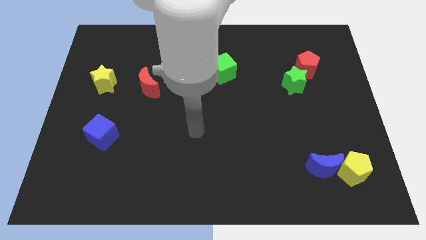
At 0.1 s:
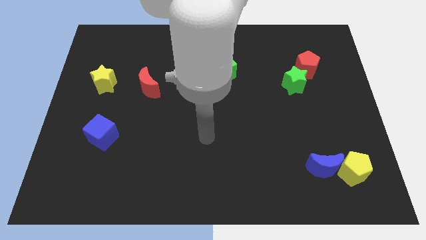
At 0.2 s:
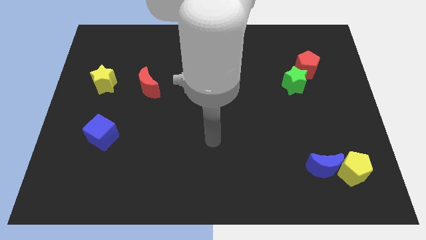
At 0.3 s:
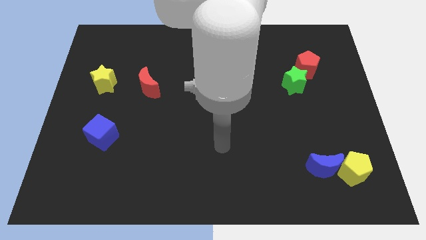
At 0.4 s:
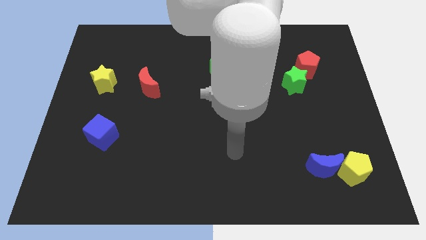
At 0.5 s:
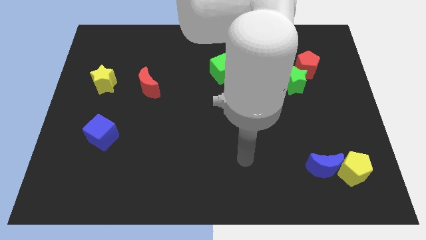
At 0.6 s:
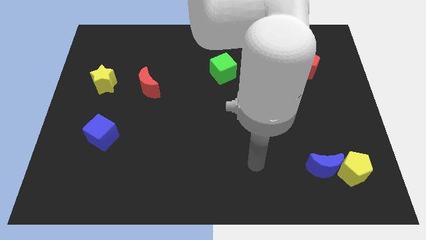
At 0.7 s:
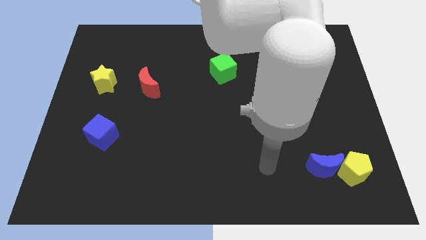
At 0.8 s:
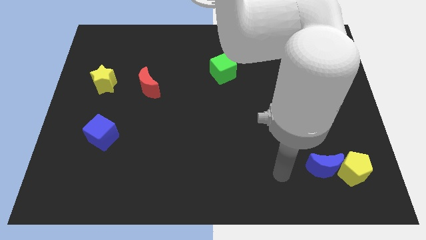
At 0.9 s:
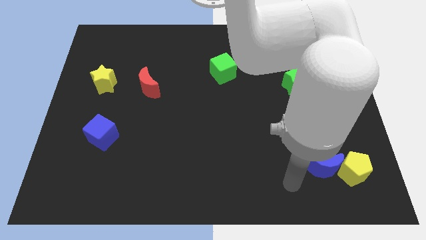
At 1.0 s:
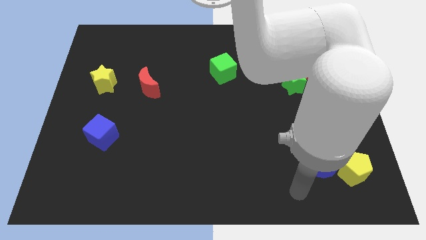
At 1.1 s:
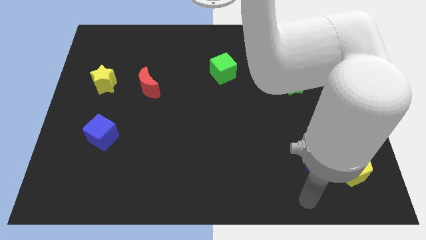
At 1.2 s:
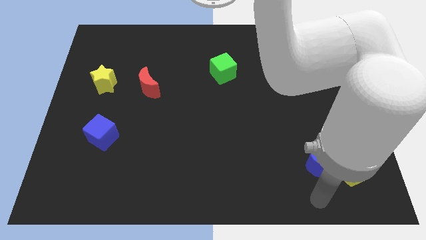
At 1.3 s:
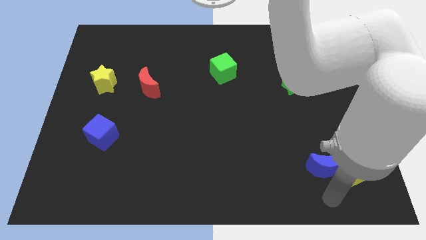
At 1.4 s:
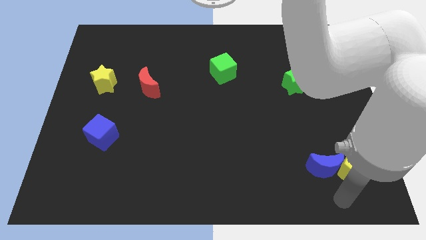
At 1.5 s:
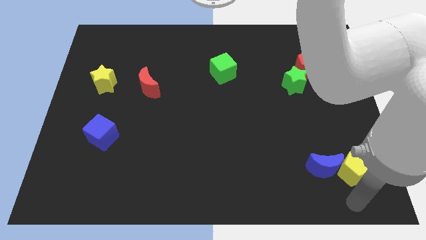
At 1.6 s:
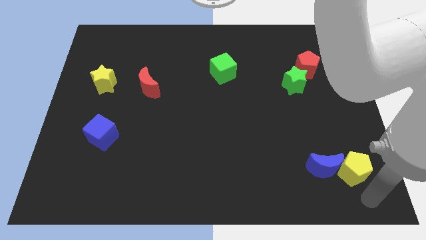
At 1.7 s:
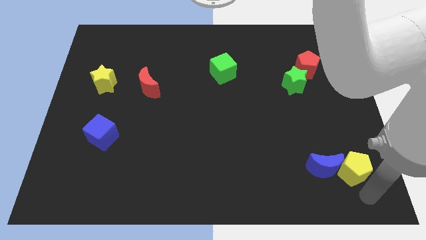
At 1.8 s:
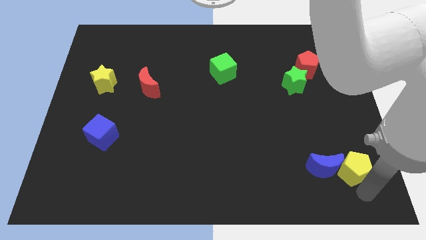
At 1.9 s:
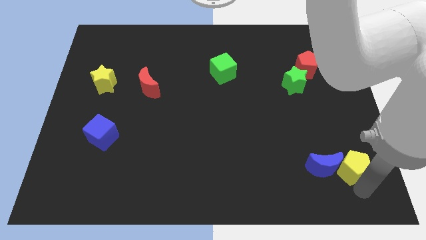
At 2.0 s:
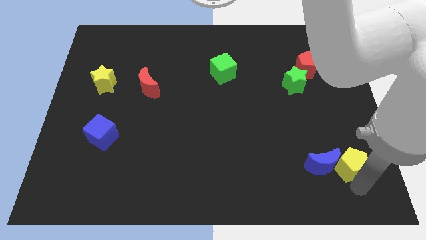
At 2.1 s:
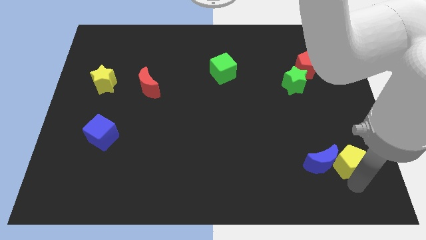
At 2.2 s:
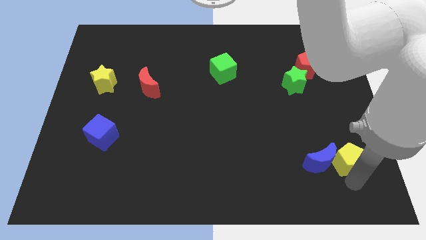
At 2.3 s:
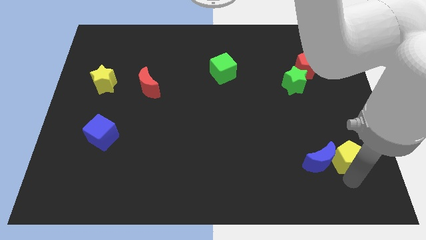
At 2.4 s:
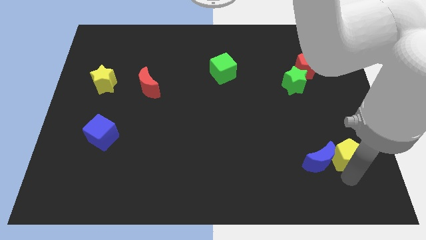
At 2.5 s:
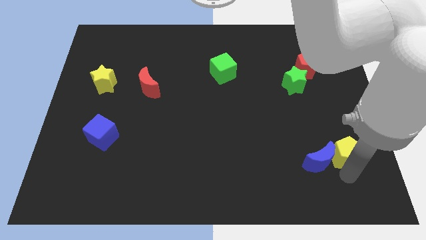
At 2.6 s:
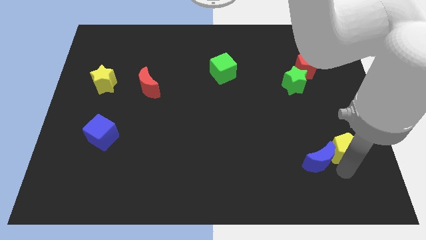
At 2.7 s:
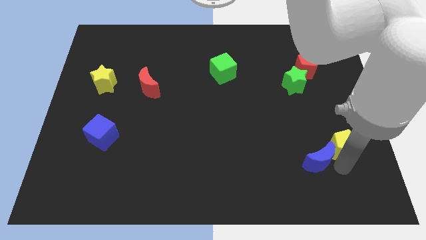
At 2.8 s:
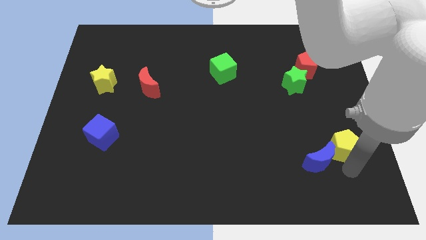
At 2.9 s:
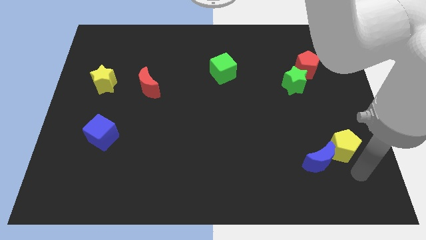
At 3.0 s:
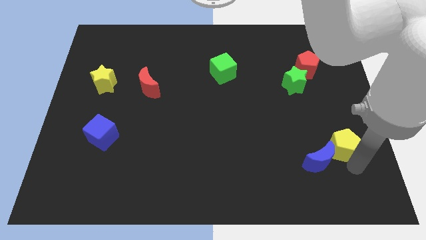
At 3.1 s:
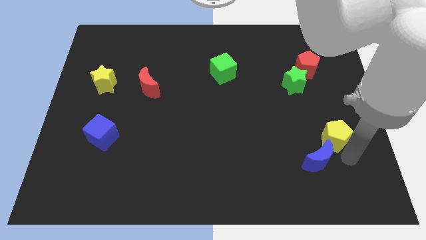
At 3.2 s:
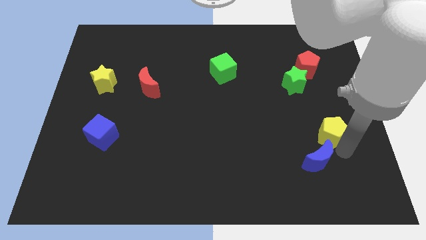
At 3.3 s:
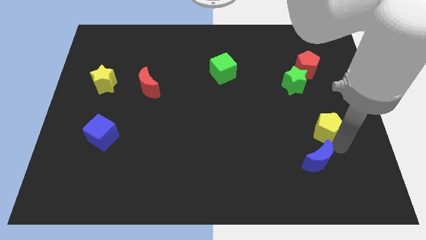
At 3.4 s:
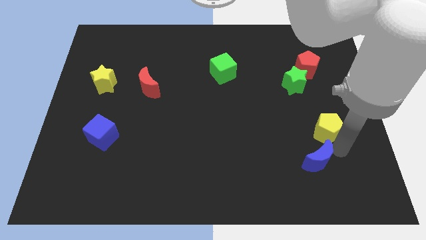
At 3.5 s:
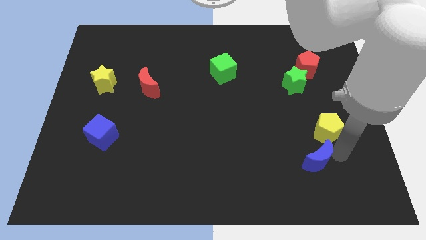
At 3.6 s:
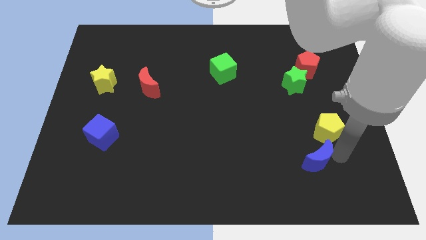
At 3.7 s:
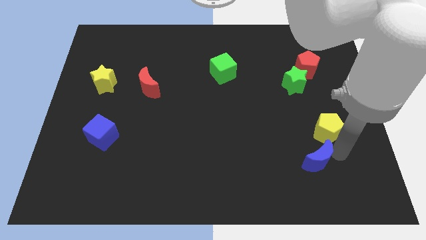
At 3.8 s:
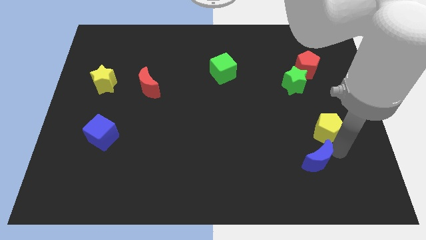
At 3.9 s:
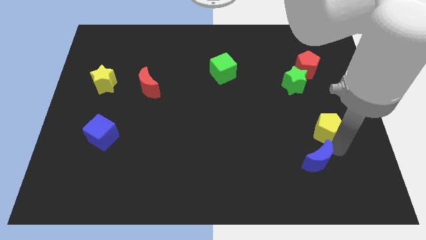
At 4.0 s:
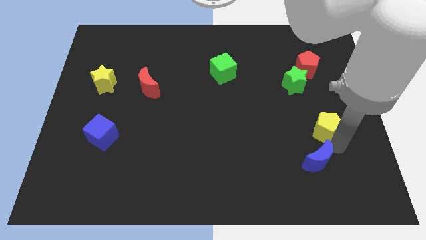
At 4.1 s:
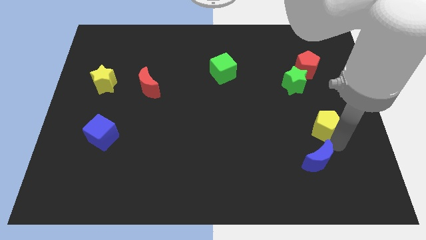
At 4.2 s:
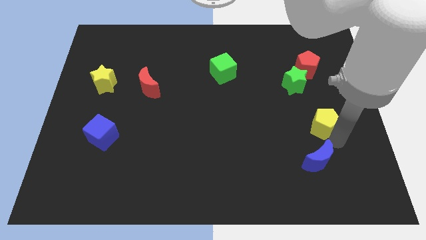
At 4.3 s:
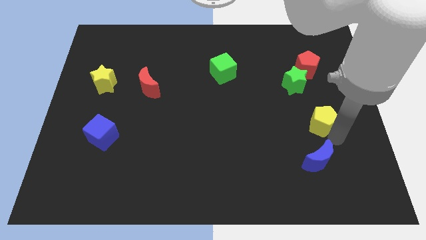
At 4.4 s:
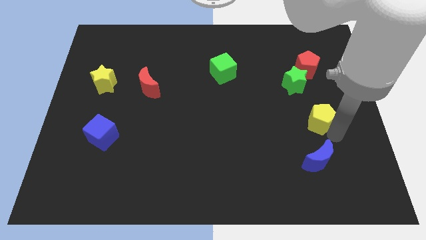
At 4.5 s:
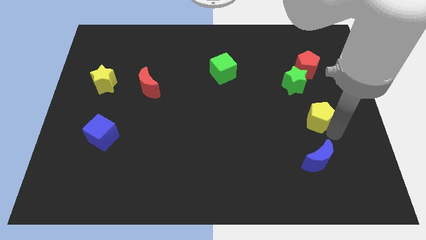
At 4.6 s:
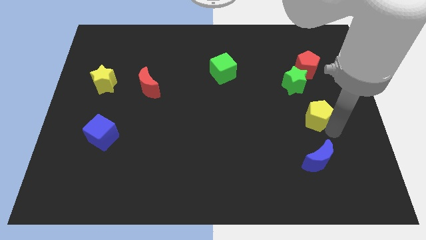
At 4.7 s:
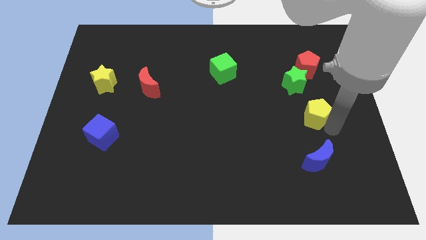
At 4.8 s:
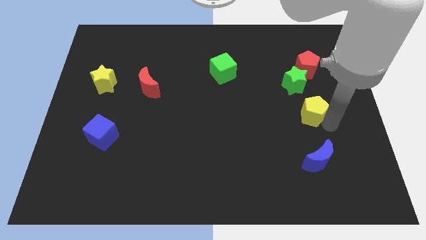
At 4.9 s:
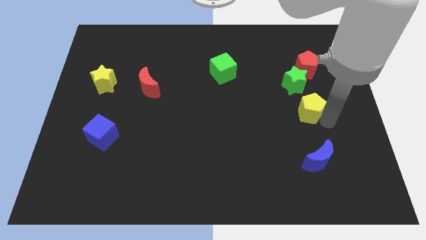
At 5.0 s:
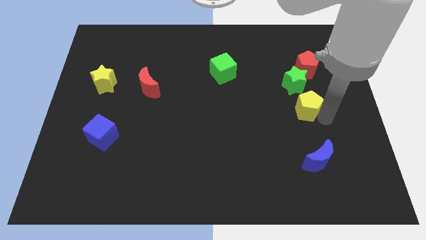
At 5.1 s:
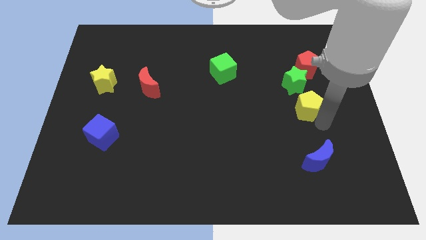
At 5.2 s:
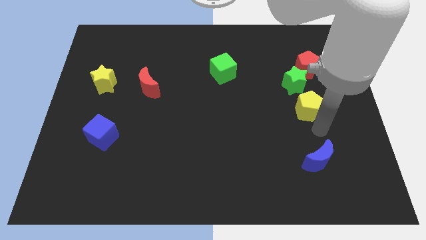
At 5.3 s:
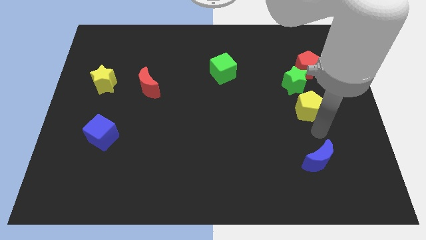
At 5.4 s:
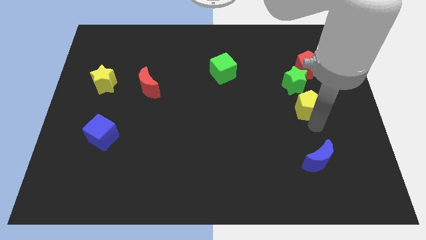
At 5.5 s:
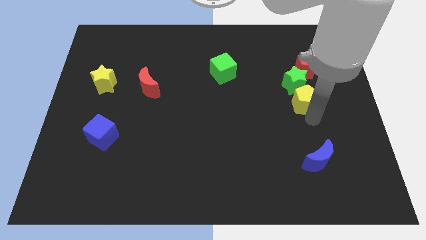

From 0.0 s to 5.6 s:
push the yellow pentagon towards the green star

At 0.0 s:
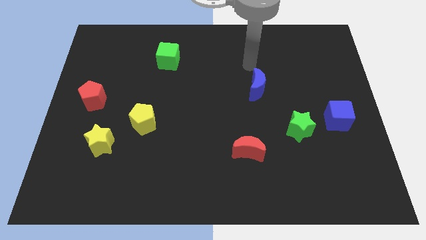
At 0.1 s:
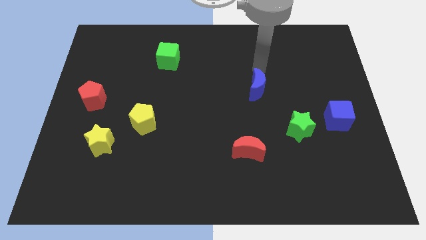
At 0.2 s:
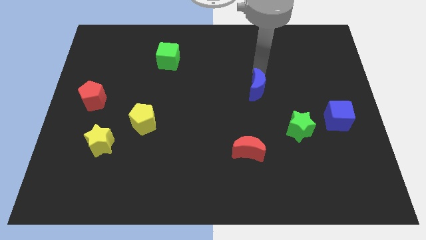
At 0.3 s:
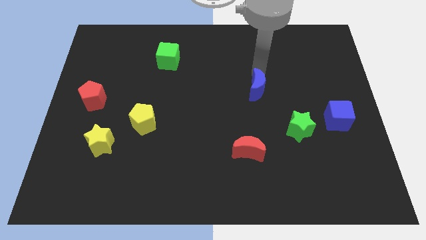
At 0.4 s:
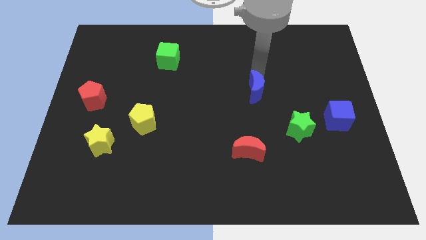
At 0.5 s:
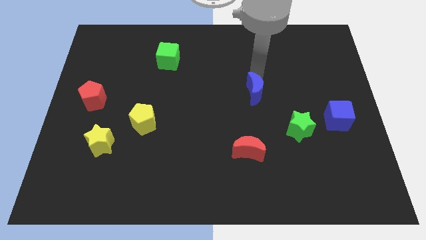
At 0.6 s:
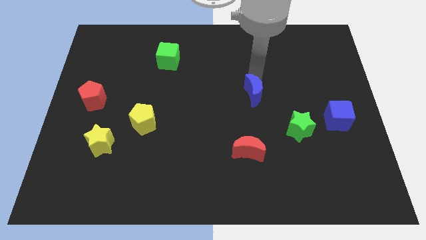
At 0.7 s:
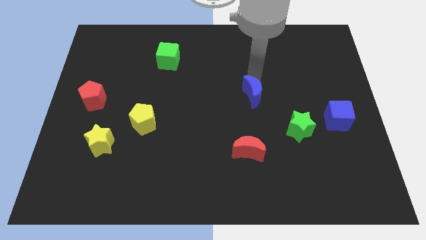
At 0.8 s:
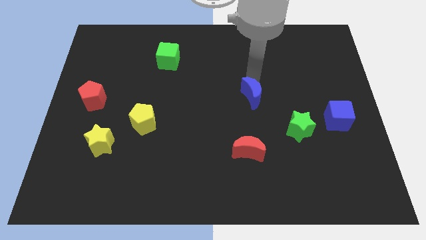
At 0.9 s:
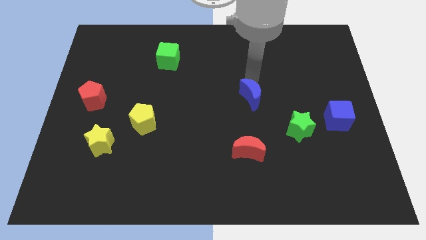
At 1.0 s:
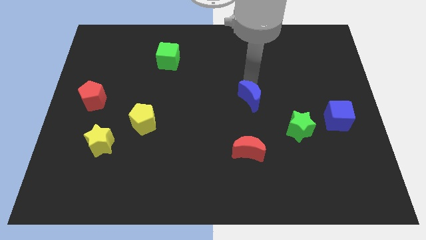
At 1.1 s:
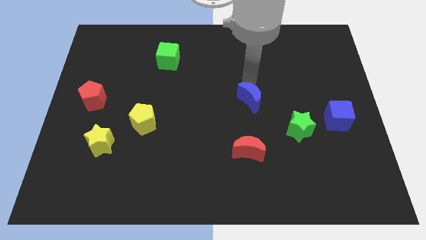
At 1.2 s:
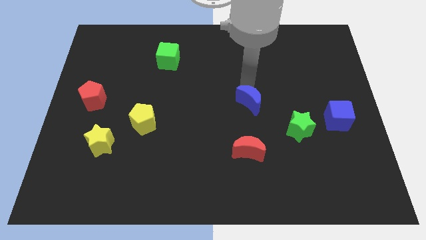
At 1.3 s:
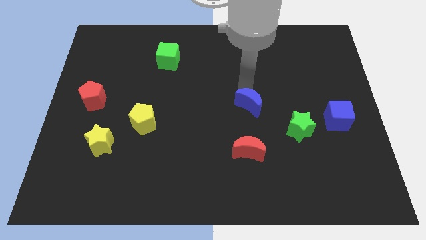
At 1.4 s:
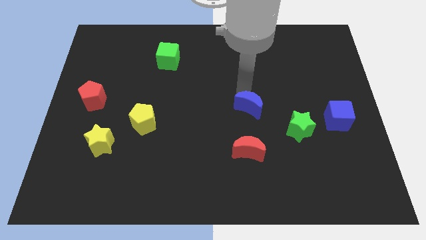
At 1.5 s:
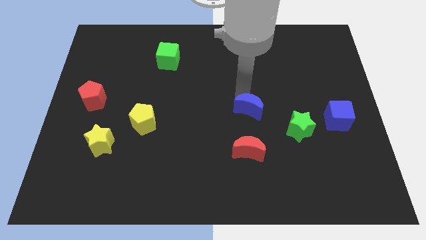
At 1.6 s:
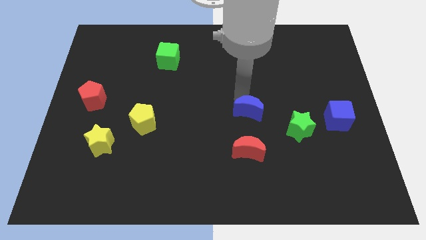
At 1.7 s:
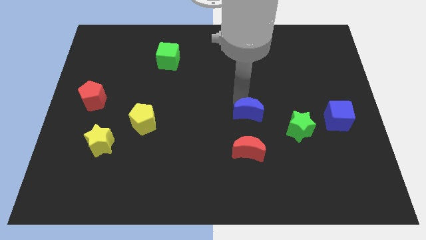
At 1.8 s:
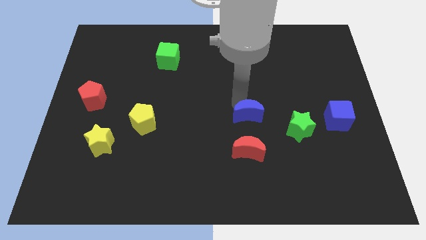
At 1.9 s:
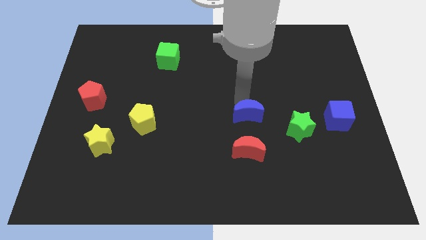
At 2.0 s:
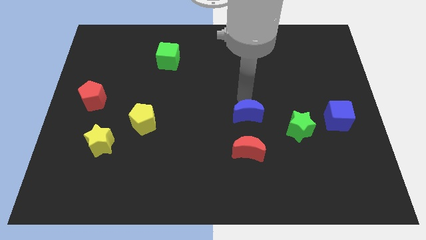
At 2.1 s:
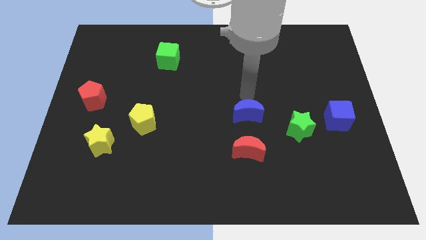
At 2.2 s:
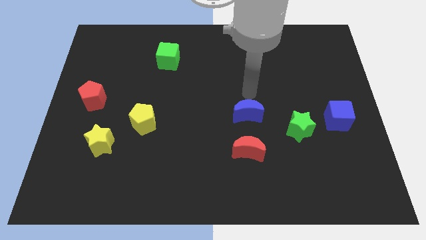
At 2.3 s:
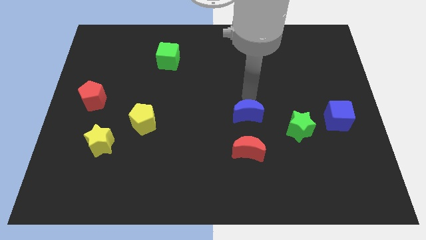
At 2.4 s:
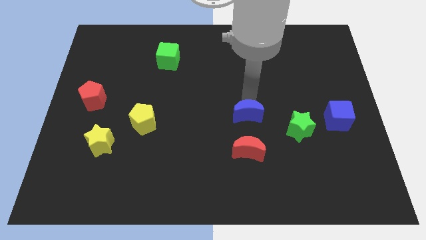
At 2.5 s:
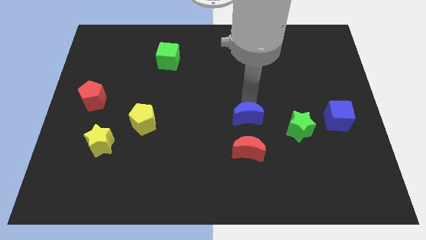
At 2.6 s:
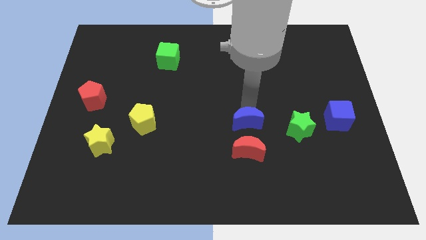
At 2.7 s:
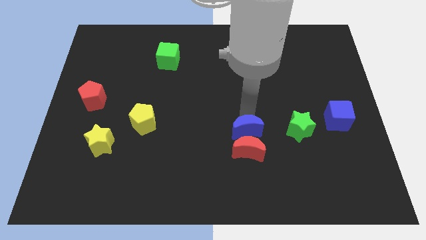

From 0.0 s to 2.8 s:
slide the blue moon towards the red moon
